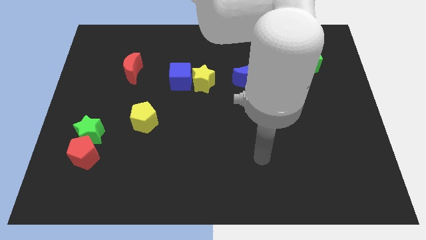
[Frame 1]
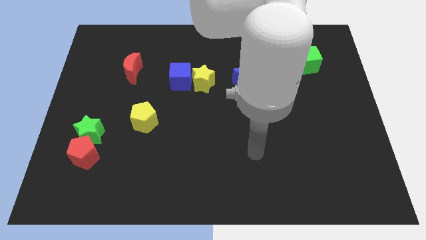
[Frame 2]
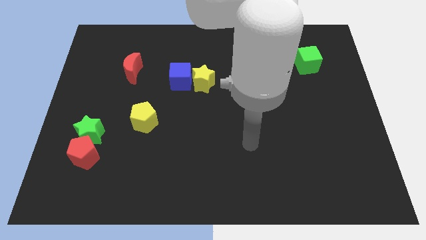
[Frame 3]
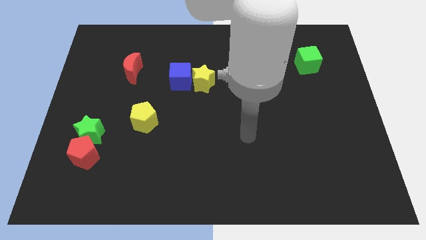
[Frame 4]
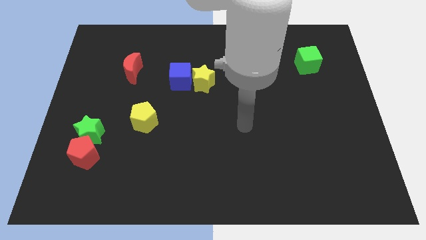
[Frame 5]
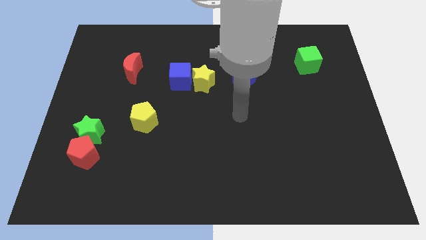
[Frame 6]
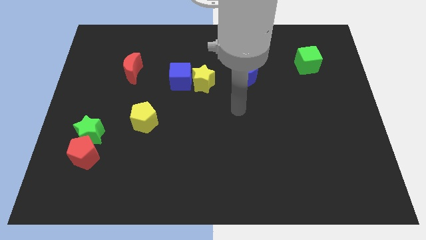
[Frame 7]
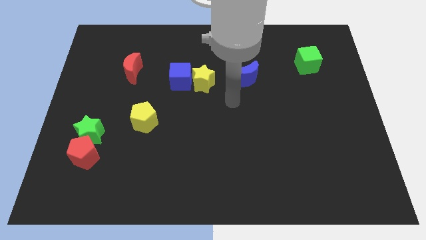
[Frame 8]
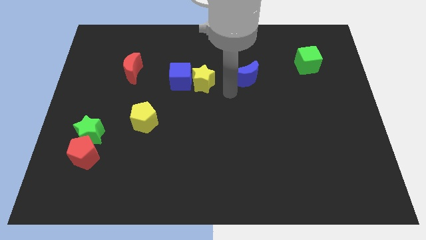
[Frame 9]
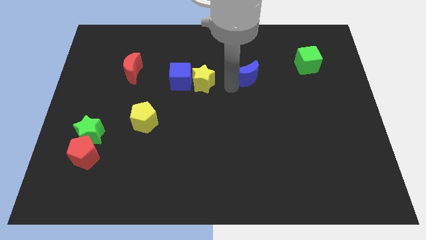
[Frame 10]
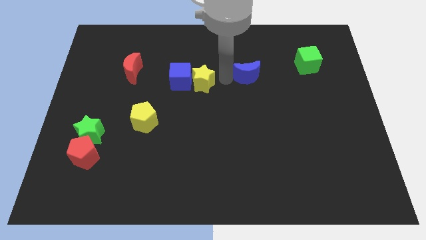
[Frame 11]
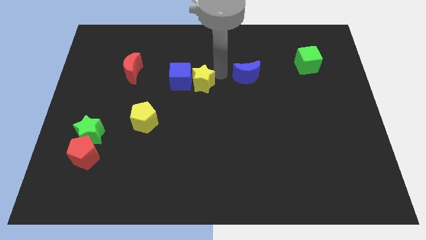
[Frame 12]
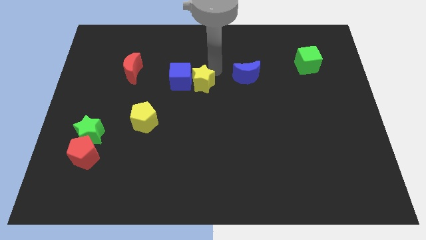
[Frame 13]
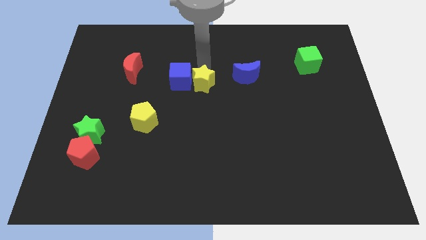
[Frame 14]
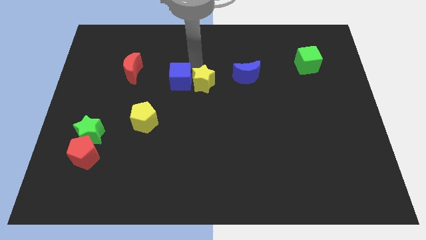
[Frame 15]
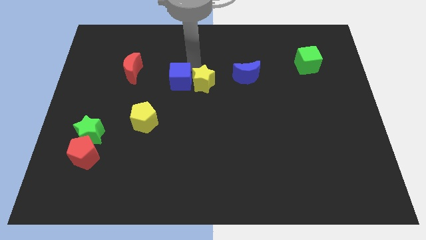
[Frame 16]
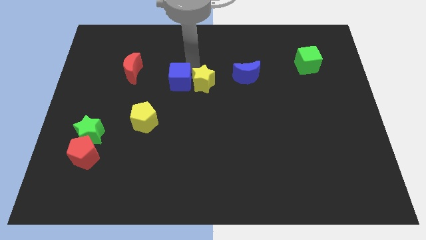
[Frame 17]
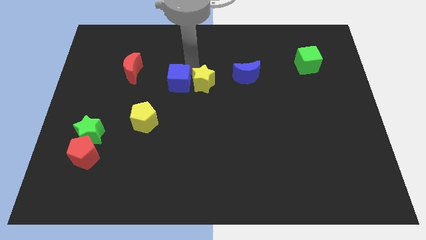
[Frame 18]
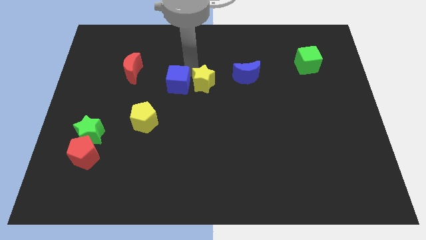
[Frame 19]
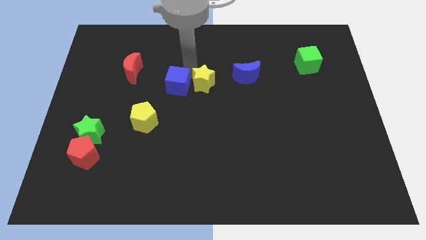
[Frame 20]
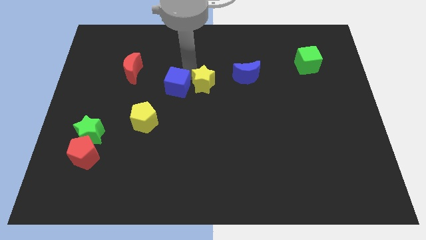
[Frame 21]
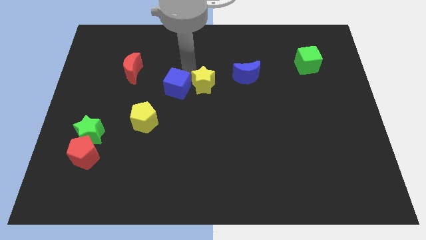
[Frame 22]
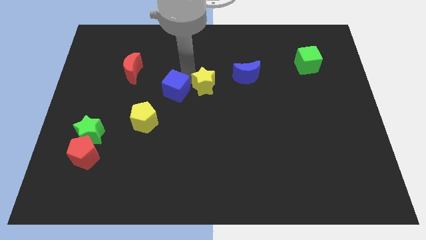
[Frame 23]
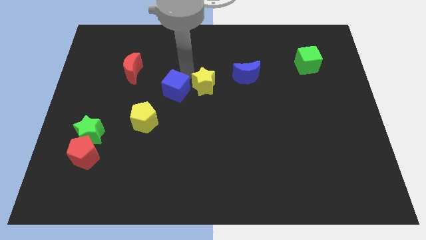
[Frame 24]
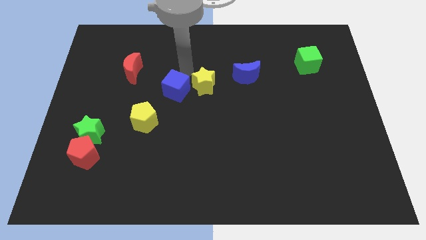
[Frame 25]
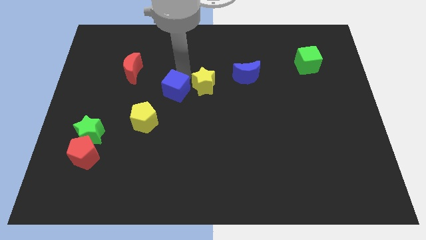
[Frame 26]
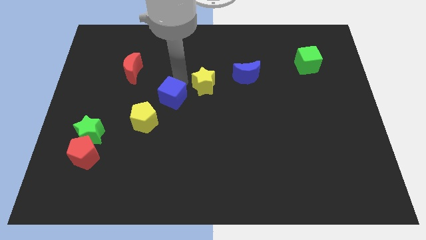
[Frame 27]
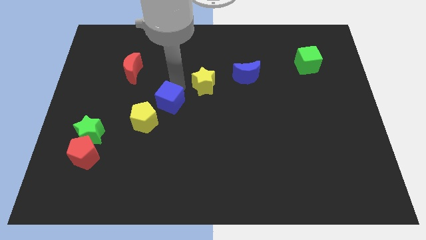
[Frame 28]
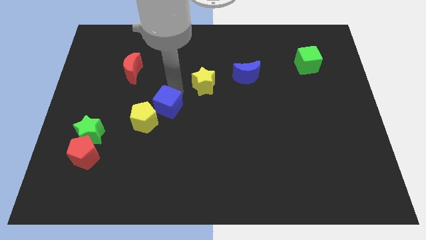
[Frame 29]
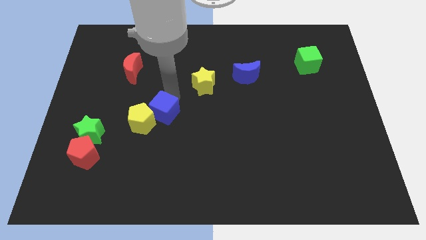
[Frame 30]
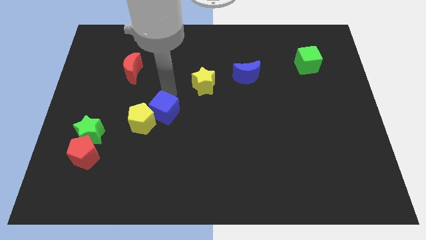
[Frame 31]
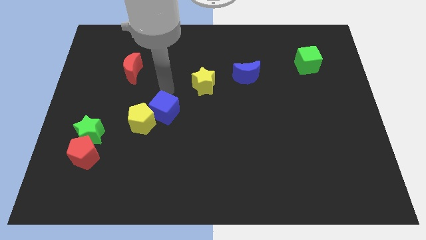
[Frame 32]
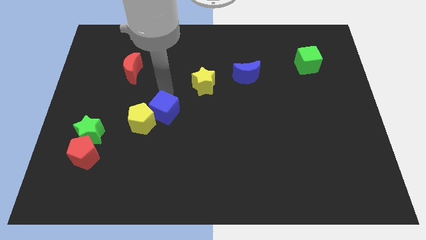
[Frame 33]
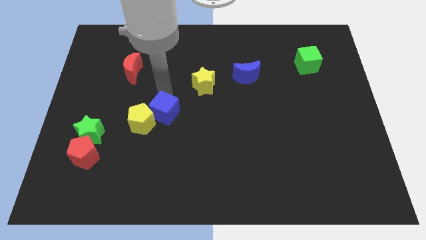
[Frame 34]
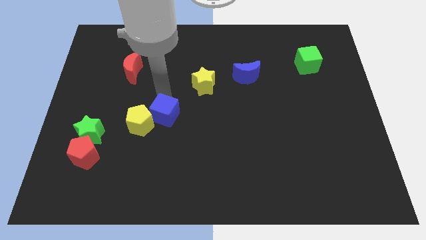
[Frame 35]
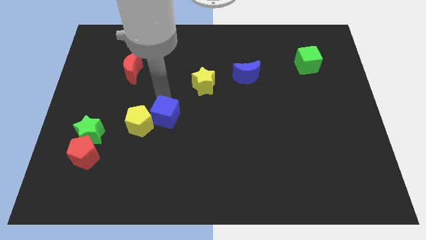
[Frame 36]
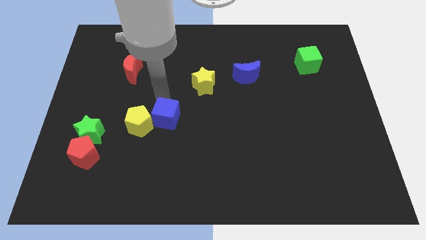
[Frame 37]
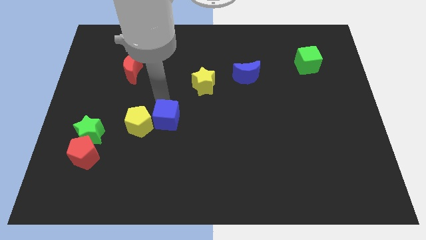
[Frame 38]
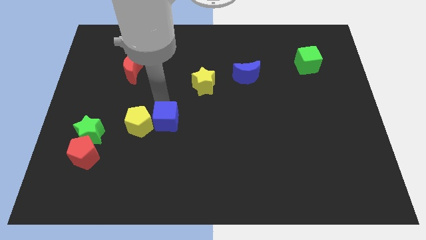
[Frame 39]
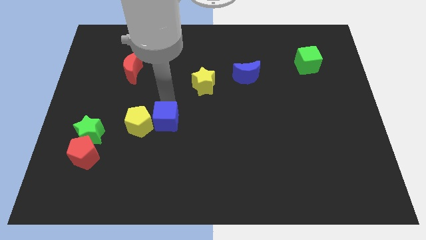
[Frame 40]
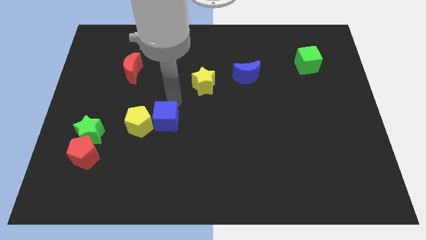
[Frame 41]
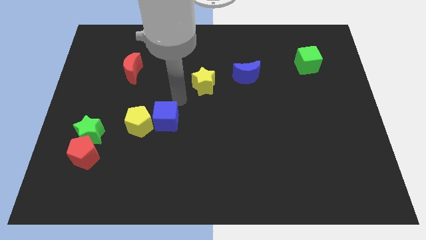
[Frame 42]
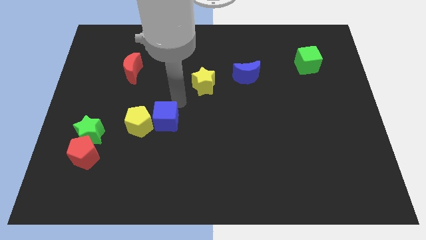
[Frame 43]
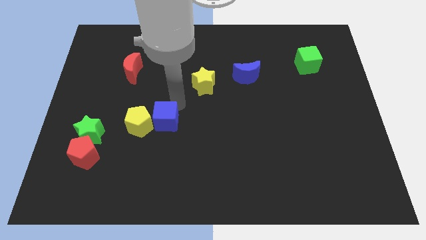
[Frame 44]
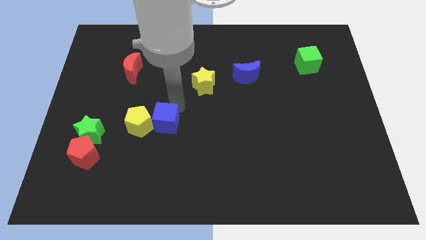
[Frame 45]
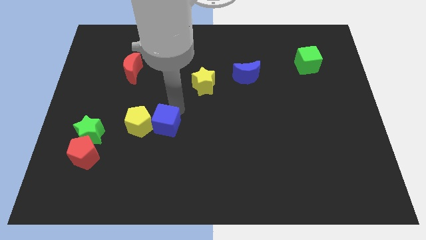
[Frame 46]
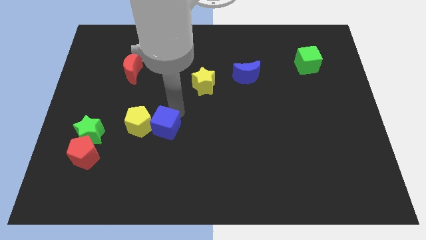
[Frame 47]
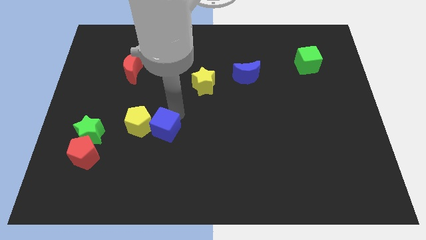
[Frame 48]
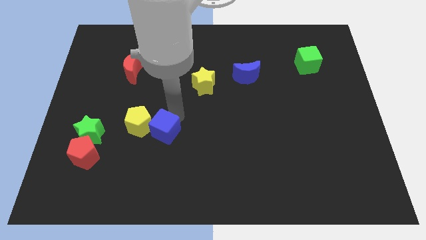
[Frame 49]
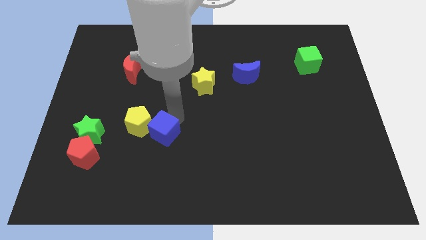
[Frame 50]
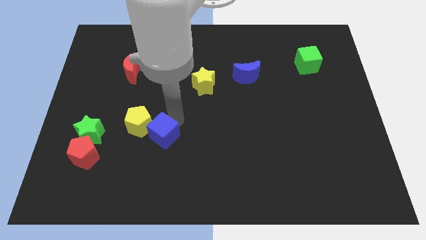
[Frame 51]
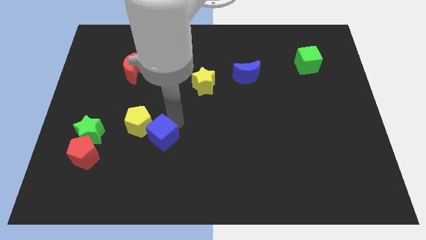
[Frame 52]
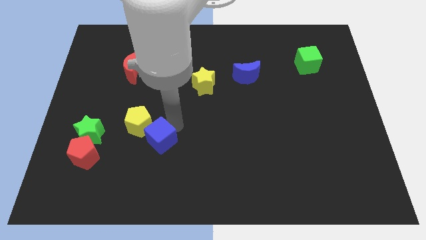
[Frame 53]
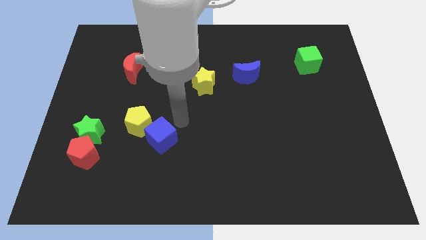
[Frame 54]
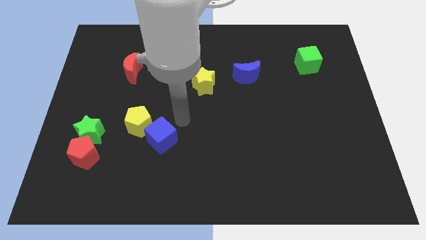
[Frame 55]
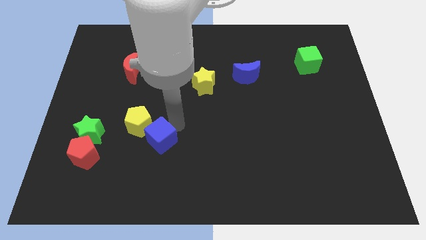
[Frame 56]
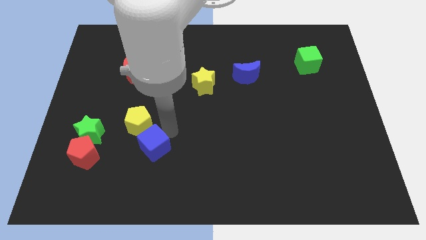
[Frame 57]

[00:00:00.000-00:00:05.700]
move the blue cube to the bottom side of the yellow pentagon

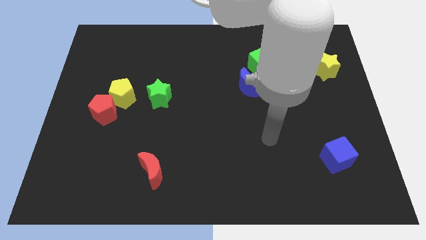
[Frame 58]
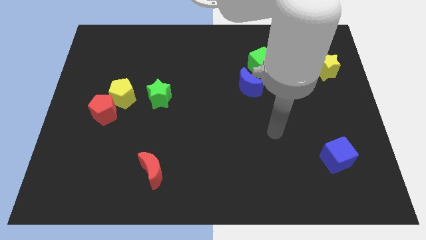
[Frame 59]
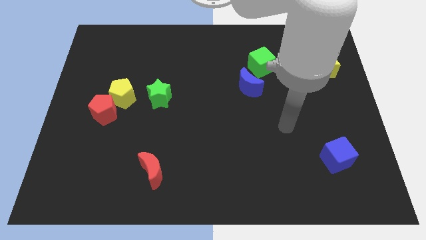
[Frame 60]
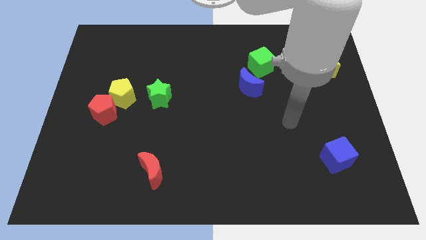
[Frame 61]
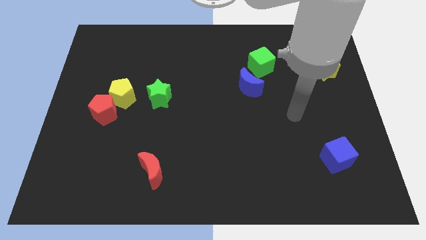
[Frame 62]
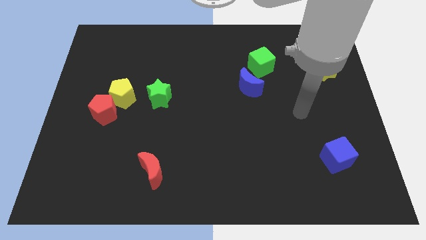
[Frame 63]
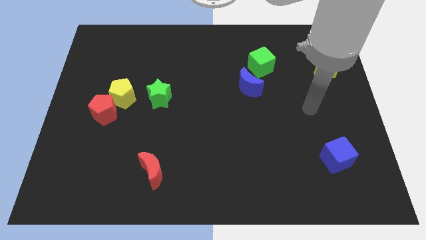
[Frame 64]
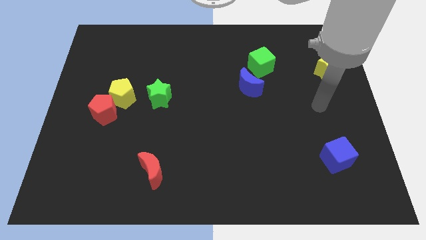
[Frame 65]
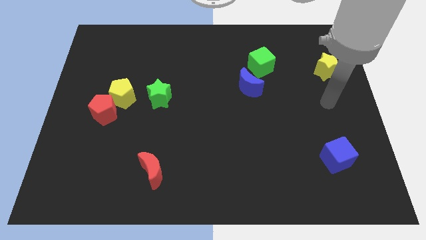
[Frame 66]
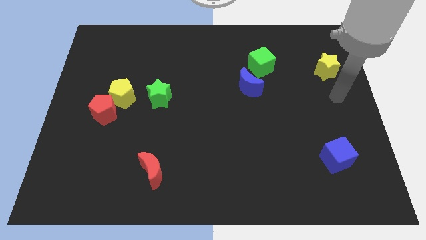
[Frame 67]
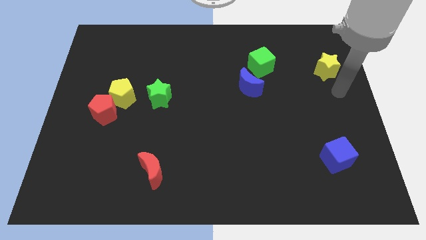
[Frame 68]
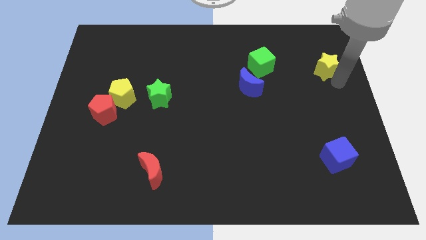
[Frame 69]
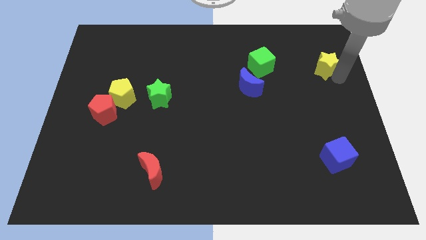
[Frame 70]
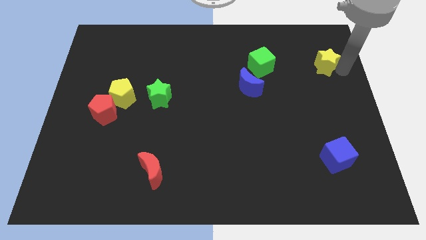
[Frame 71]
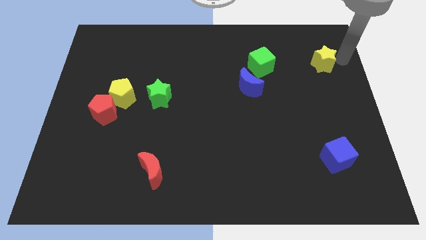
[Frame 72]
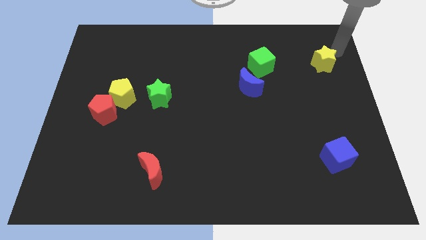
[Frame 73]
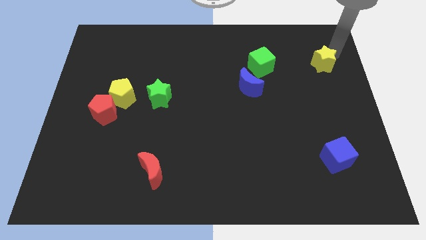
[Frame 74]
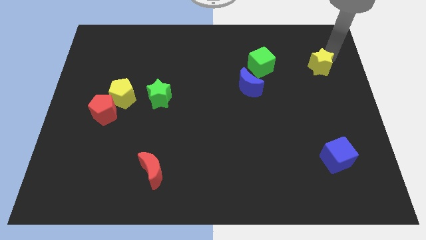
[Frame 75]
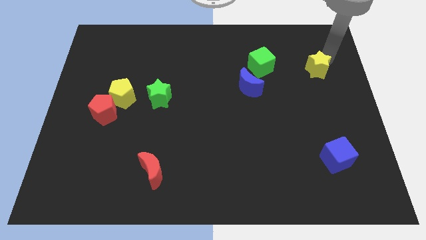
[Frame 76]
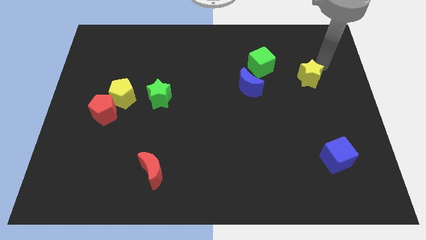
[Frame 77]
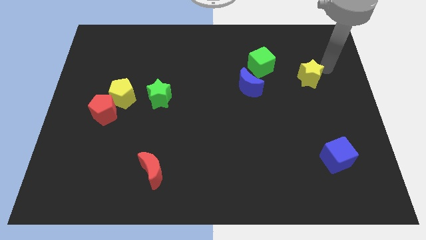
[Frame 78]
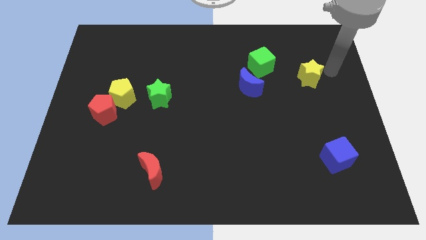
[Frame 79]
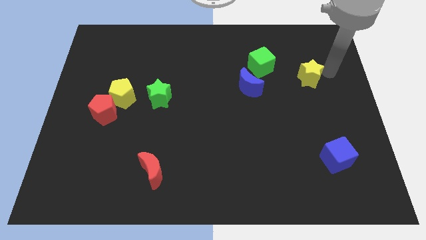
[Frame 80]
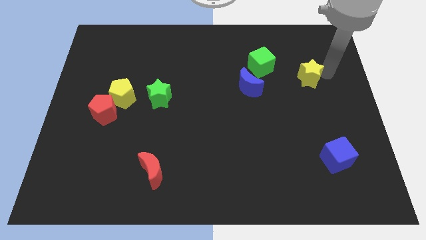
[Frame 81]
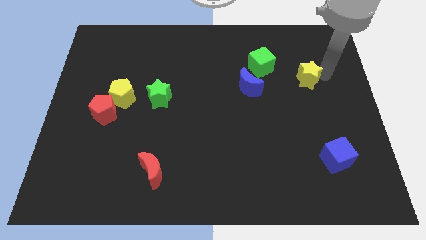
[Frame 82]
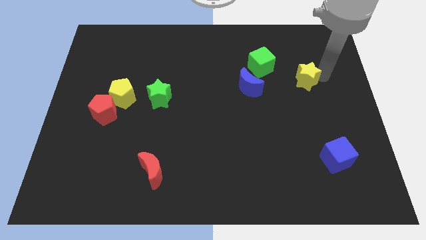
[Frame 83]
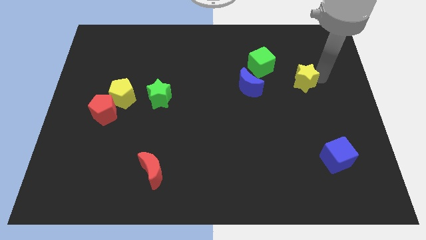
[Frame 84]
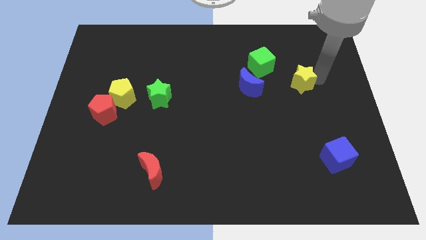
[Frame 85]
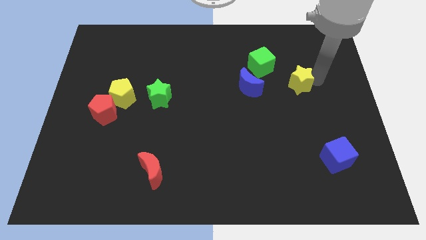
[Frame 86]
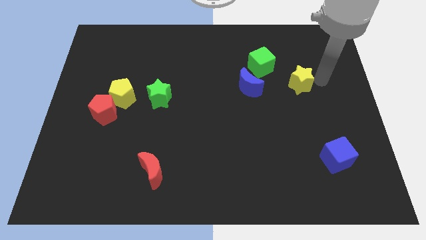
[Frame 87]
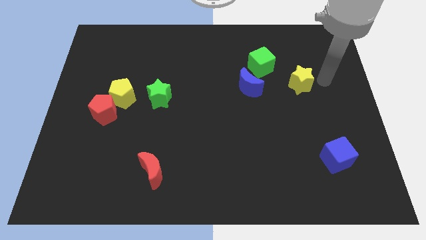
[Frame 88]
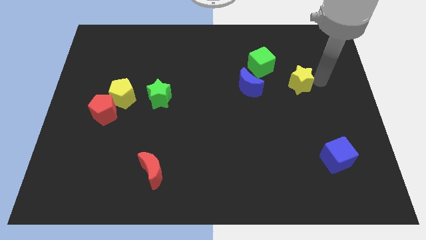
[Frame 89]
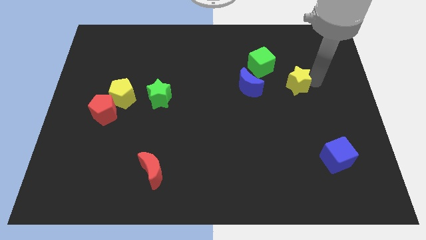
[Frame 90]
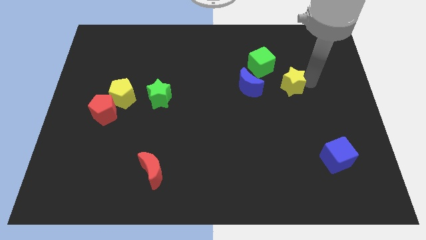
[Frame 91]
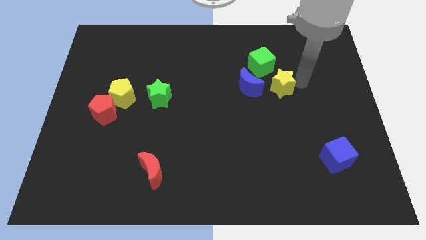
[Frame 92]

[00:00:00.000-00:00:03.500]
push the yellow star below the green cube
